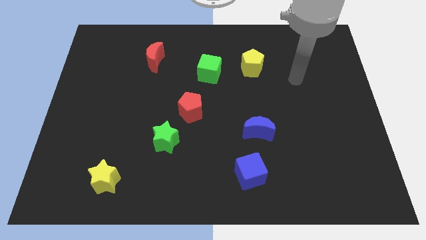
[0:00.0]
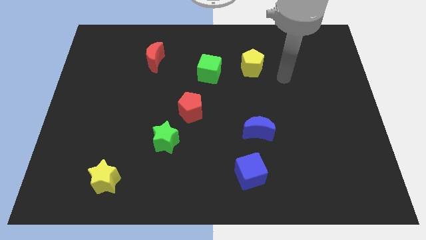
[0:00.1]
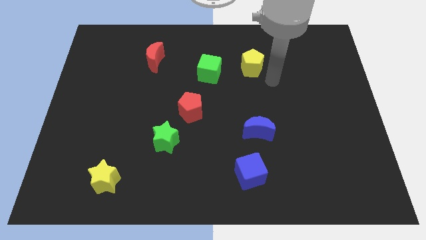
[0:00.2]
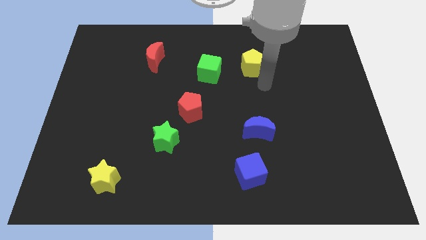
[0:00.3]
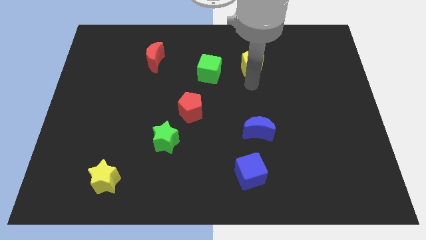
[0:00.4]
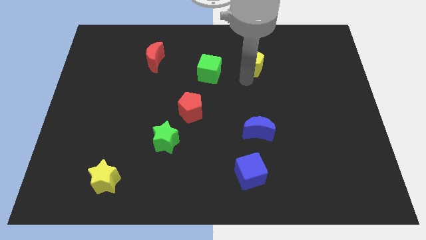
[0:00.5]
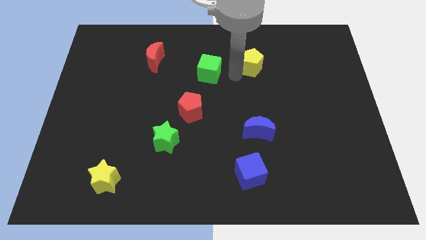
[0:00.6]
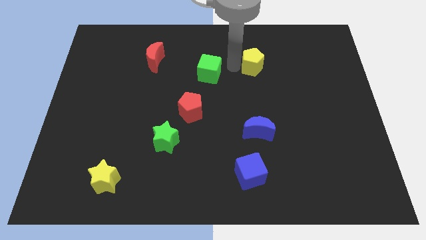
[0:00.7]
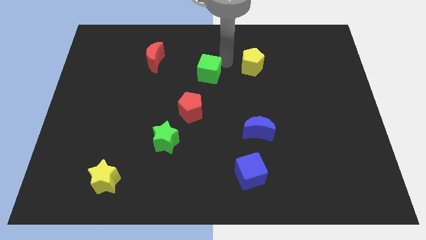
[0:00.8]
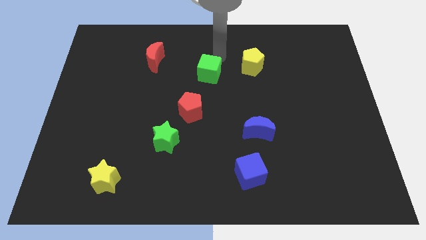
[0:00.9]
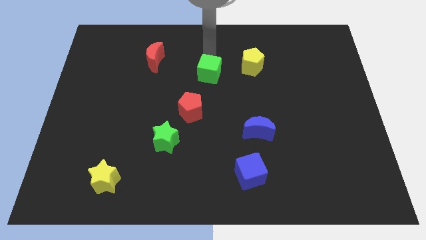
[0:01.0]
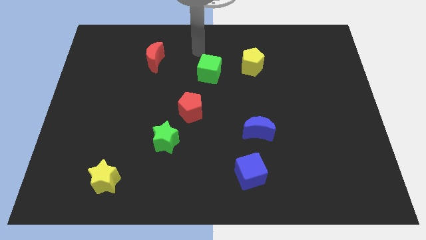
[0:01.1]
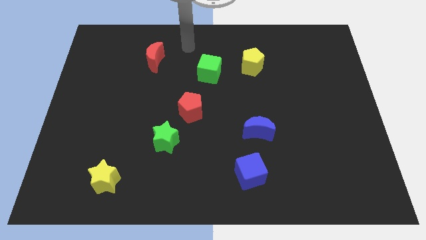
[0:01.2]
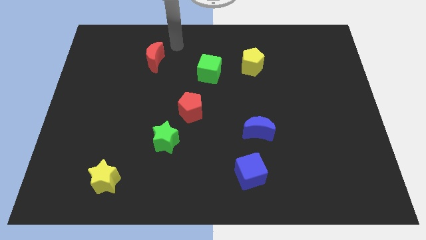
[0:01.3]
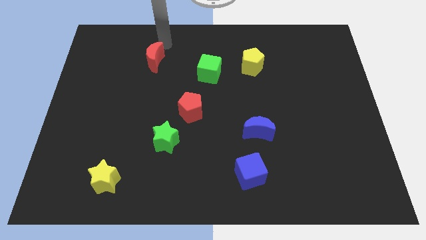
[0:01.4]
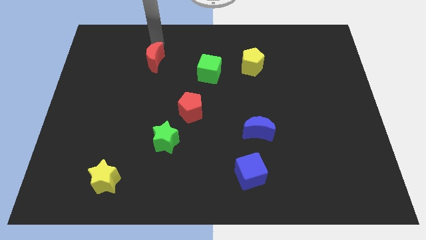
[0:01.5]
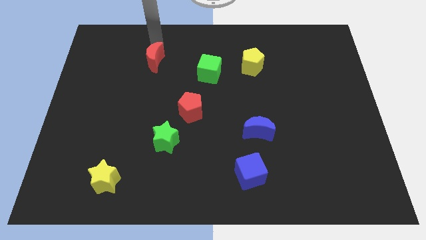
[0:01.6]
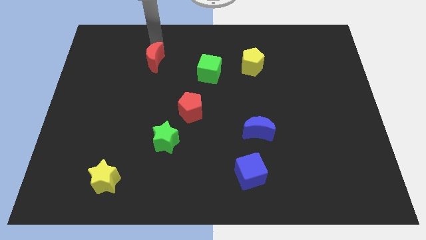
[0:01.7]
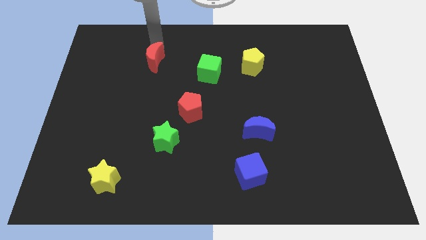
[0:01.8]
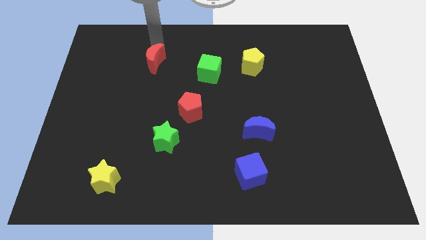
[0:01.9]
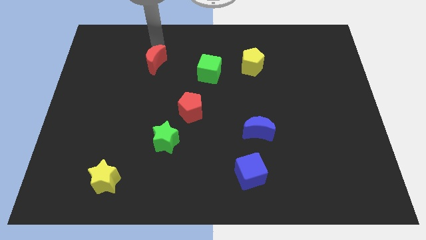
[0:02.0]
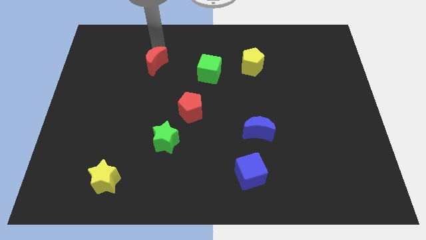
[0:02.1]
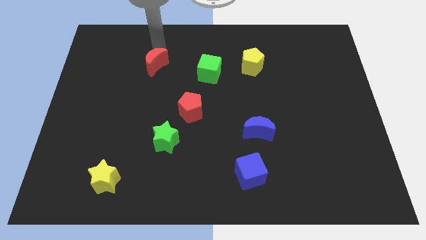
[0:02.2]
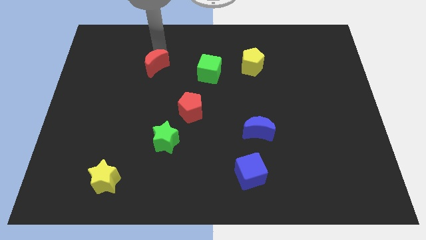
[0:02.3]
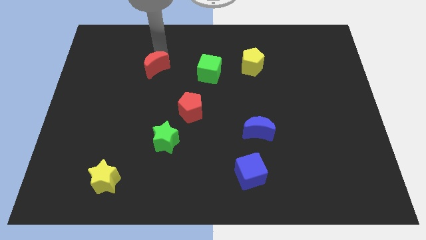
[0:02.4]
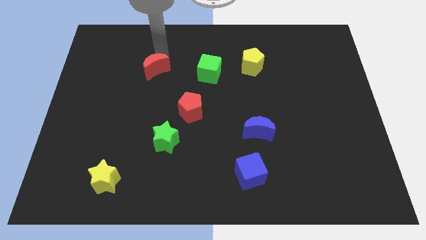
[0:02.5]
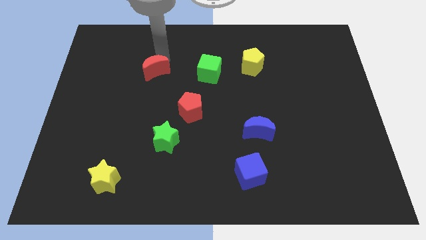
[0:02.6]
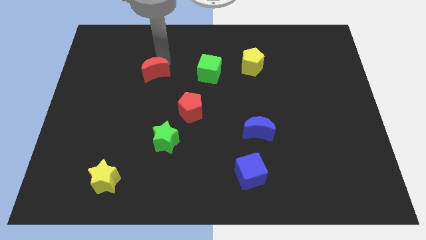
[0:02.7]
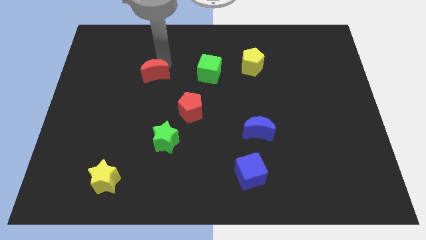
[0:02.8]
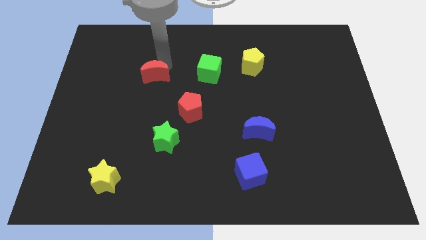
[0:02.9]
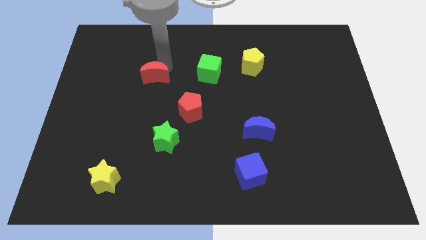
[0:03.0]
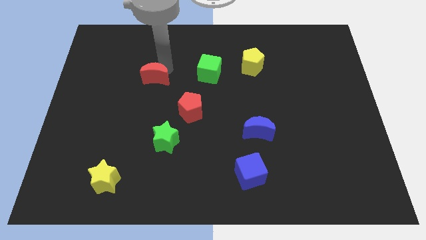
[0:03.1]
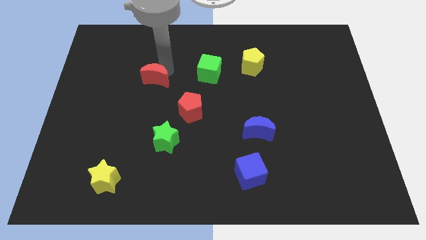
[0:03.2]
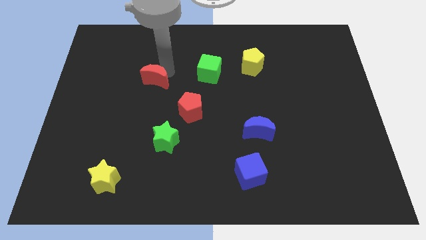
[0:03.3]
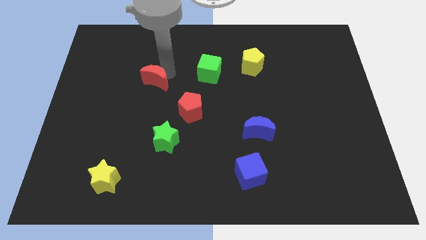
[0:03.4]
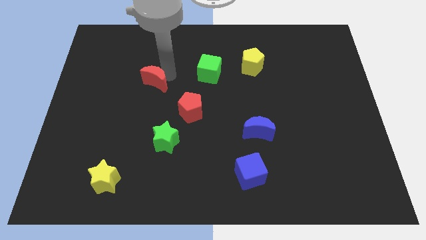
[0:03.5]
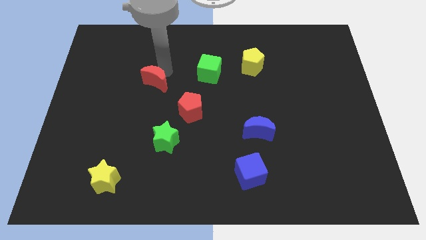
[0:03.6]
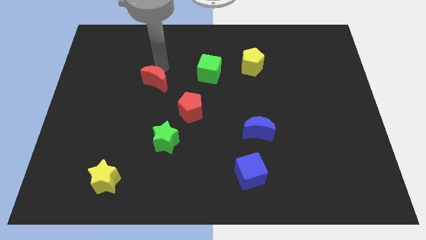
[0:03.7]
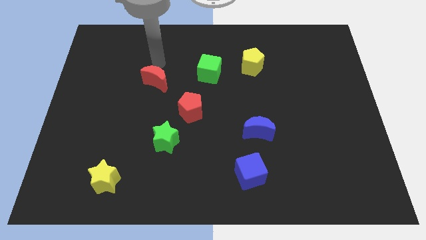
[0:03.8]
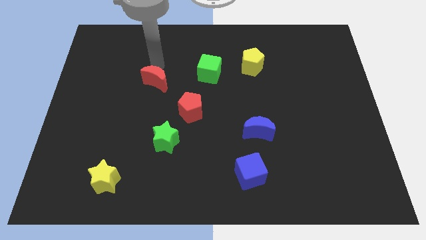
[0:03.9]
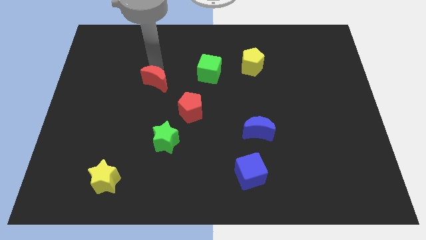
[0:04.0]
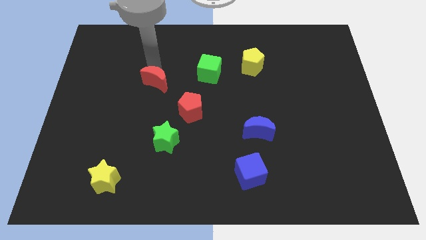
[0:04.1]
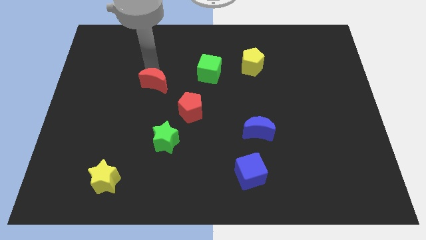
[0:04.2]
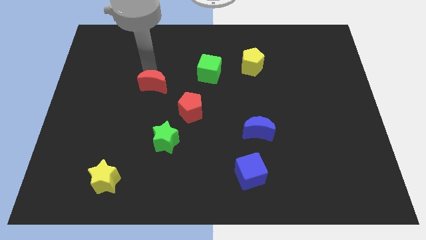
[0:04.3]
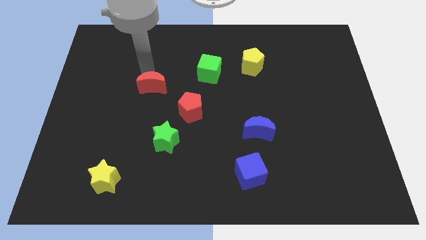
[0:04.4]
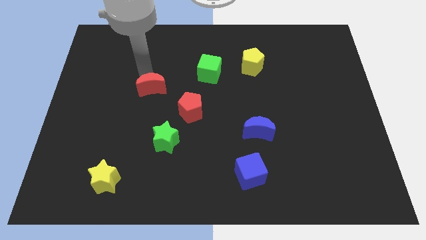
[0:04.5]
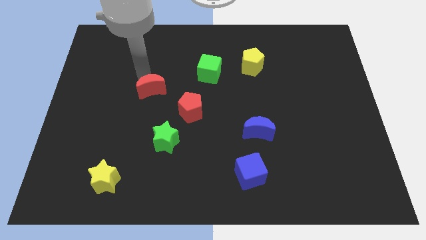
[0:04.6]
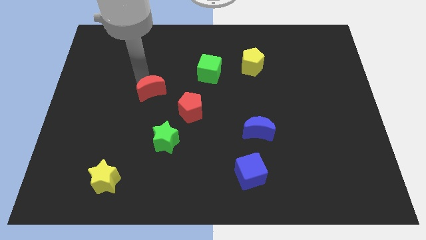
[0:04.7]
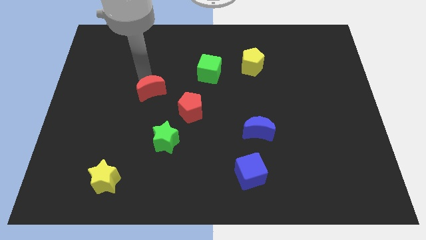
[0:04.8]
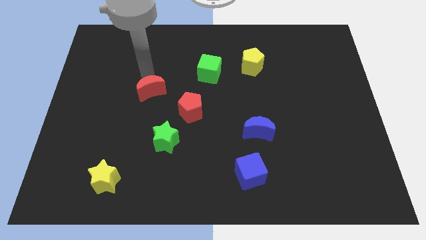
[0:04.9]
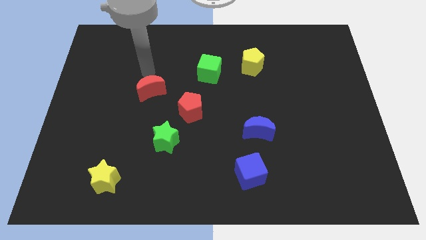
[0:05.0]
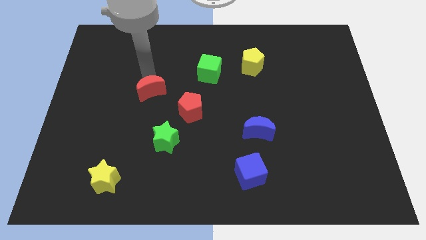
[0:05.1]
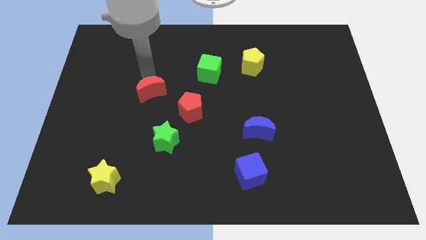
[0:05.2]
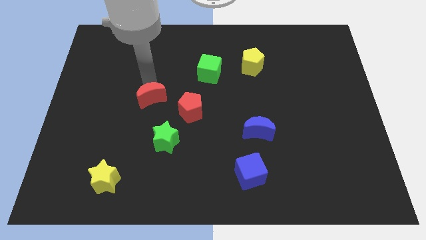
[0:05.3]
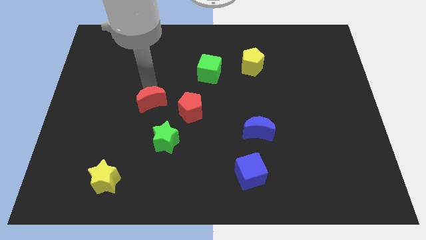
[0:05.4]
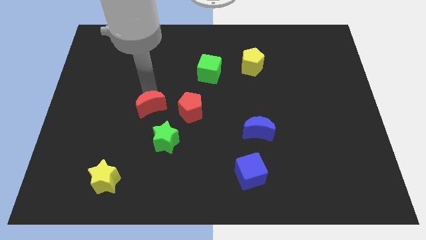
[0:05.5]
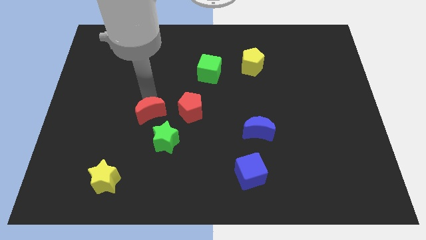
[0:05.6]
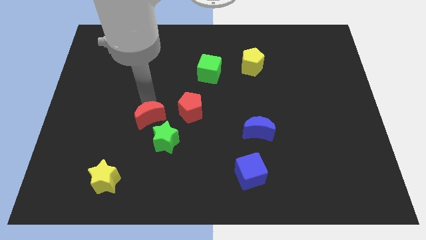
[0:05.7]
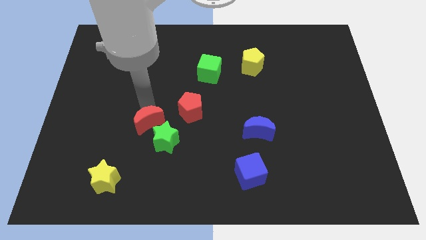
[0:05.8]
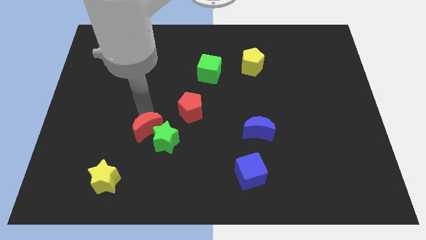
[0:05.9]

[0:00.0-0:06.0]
put the red moon close to the green star
